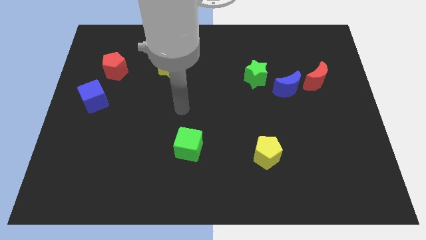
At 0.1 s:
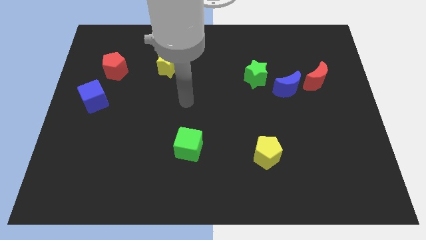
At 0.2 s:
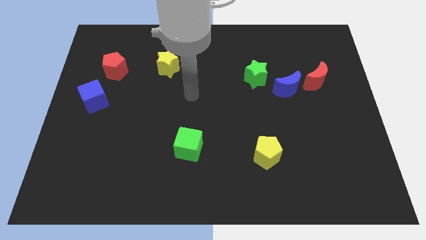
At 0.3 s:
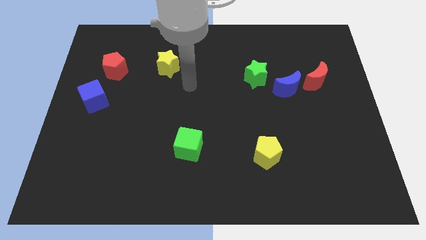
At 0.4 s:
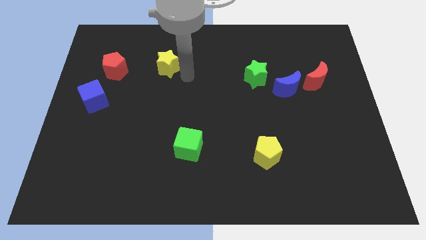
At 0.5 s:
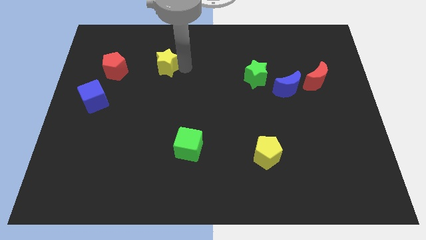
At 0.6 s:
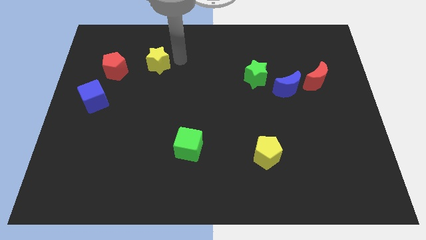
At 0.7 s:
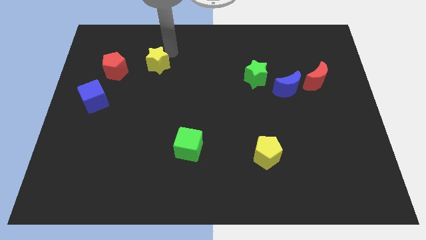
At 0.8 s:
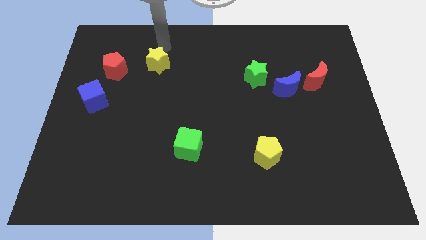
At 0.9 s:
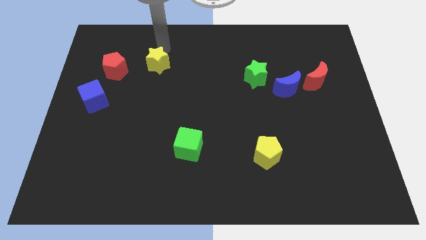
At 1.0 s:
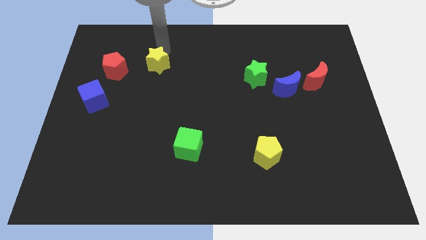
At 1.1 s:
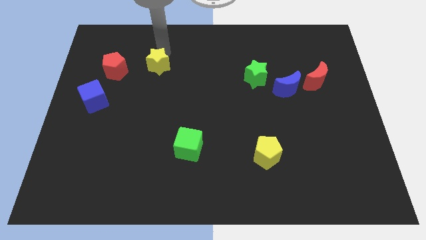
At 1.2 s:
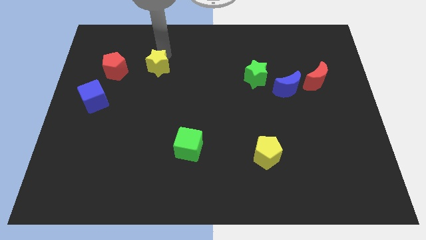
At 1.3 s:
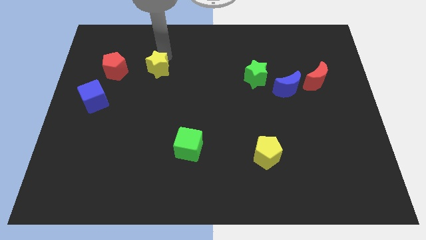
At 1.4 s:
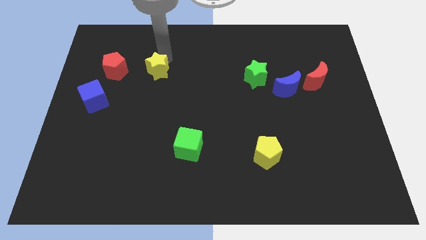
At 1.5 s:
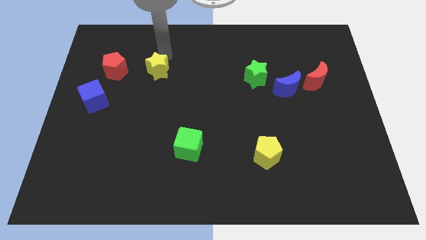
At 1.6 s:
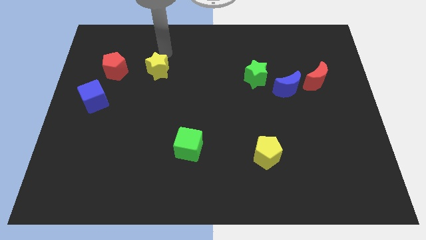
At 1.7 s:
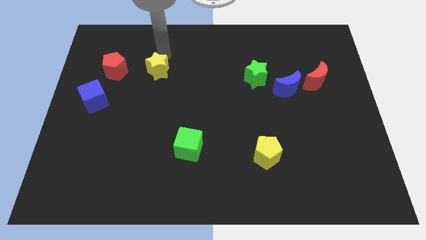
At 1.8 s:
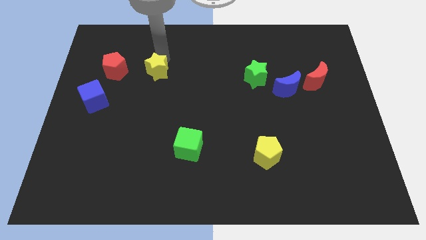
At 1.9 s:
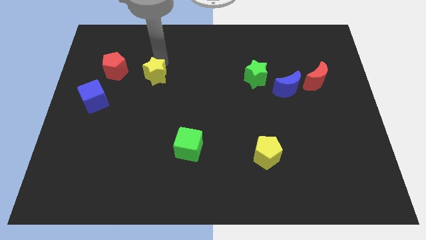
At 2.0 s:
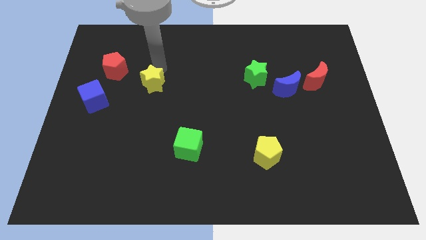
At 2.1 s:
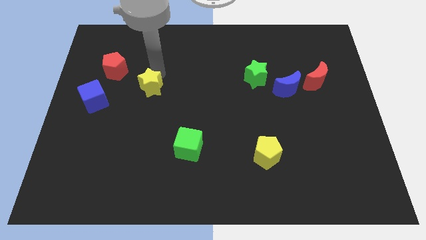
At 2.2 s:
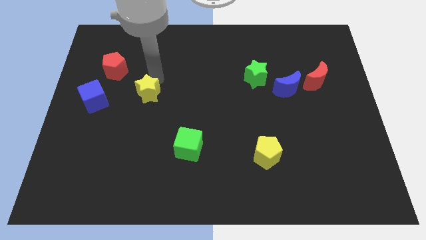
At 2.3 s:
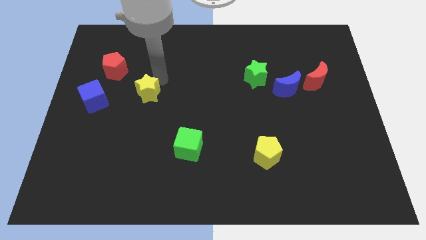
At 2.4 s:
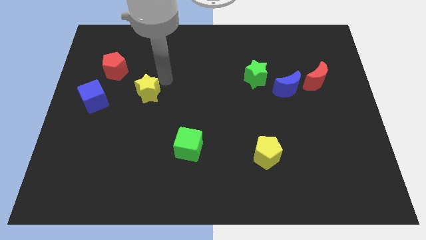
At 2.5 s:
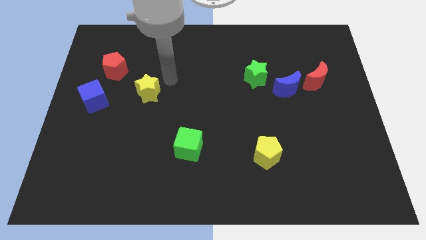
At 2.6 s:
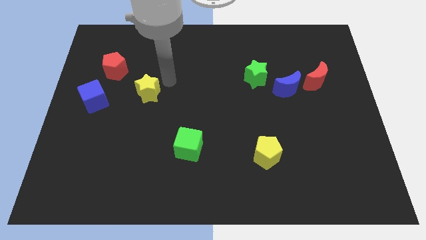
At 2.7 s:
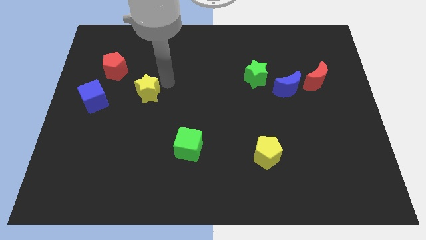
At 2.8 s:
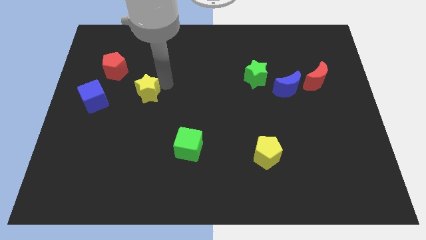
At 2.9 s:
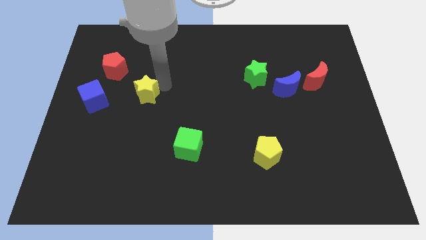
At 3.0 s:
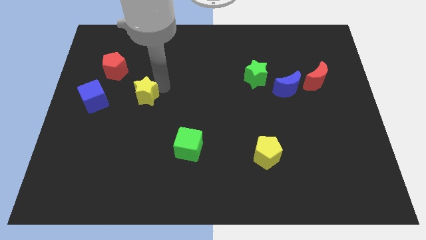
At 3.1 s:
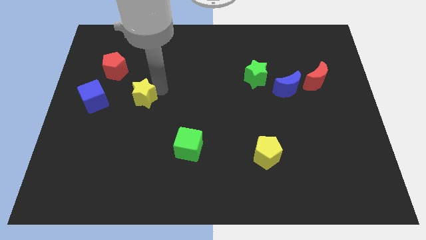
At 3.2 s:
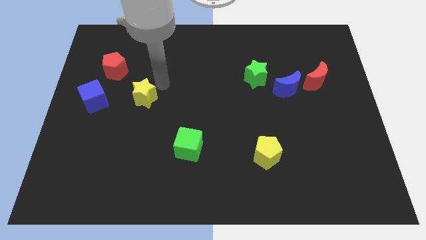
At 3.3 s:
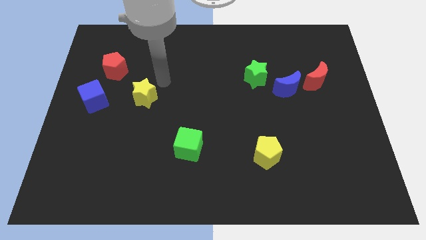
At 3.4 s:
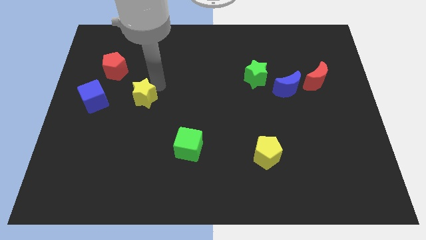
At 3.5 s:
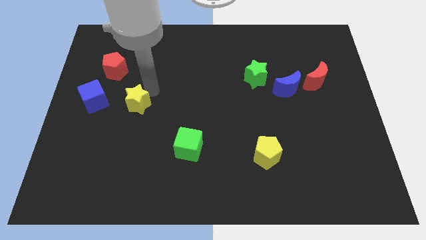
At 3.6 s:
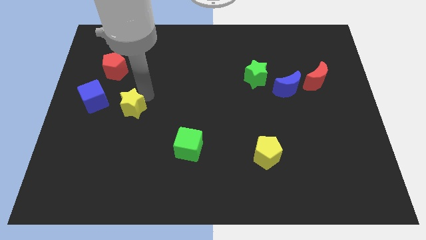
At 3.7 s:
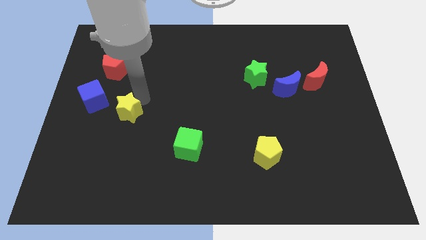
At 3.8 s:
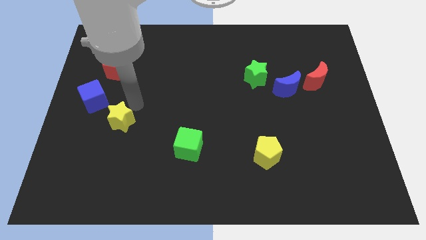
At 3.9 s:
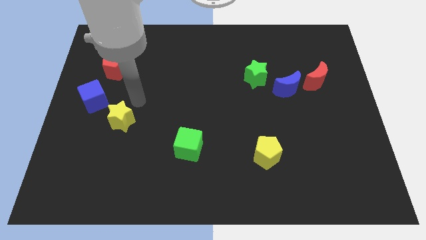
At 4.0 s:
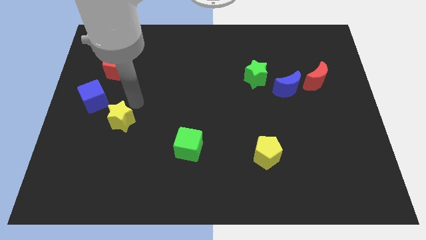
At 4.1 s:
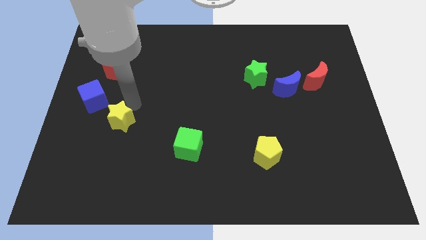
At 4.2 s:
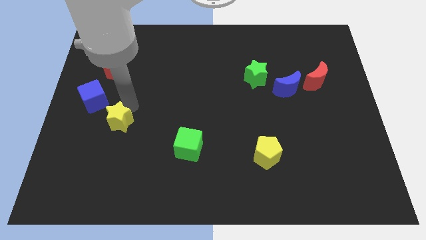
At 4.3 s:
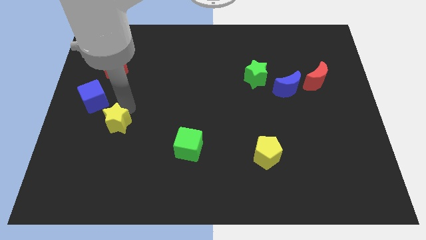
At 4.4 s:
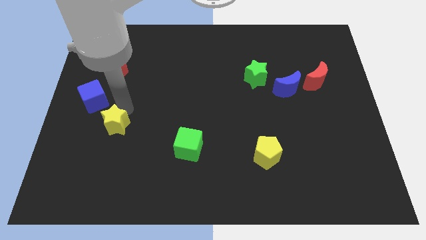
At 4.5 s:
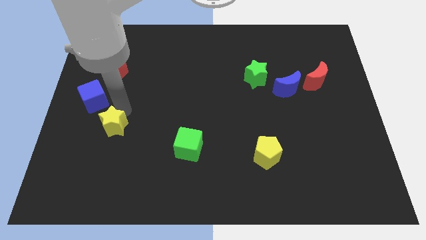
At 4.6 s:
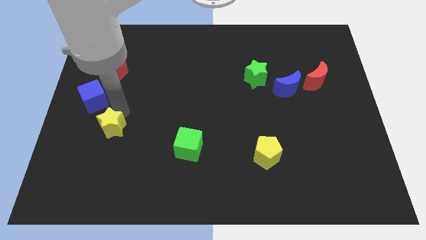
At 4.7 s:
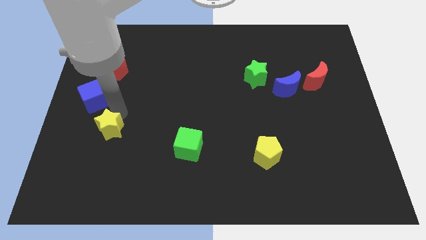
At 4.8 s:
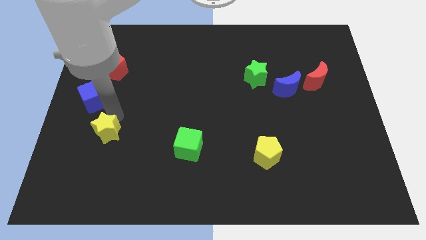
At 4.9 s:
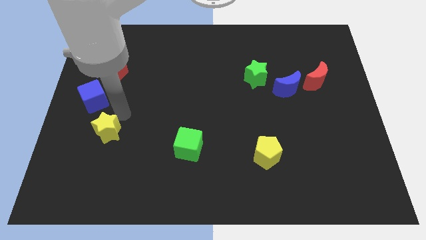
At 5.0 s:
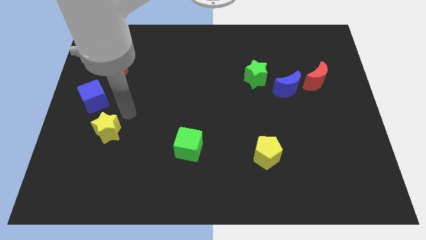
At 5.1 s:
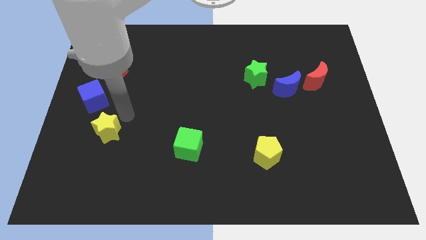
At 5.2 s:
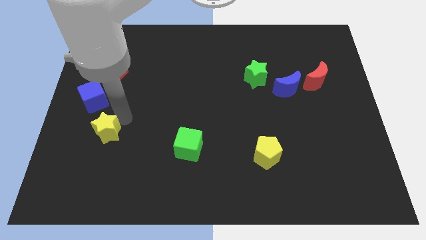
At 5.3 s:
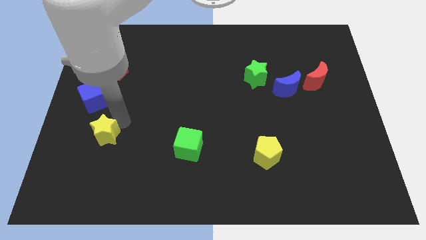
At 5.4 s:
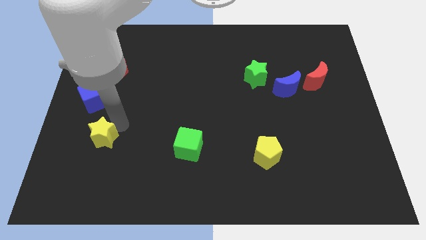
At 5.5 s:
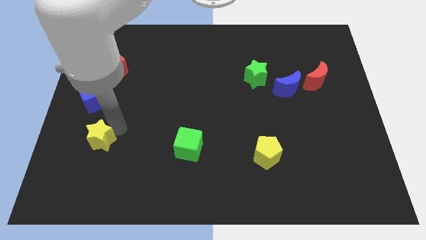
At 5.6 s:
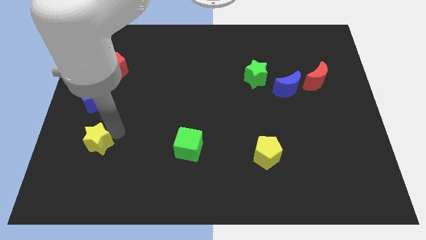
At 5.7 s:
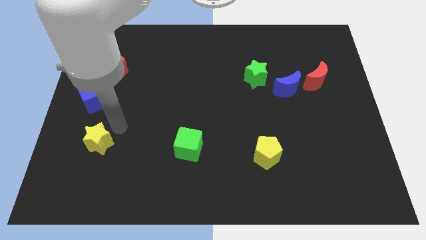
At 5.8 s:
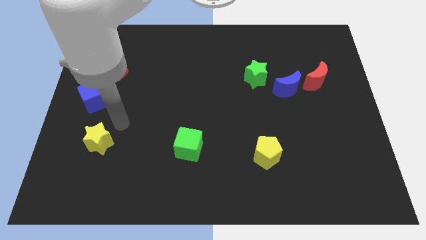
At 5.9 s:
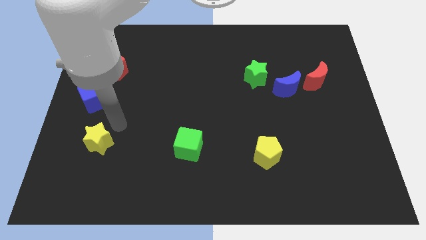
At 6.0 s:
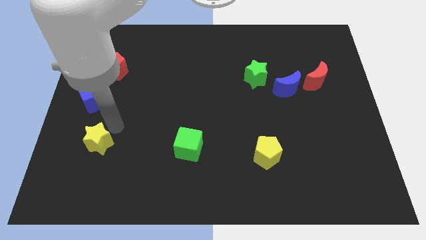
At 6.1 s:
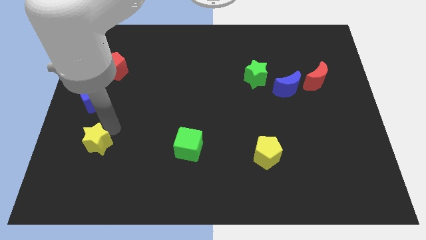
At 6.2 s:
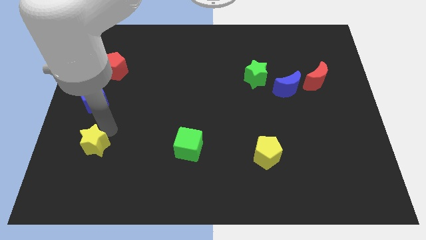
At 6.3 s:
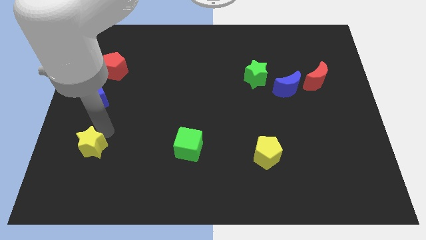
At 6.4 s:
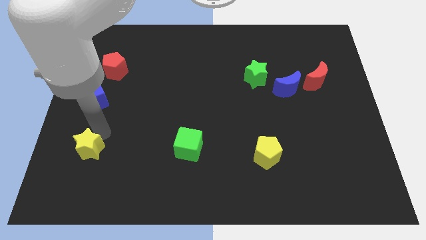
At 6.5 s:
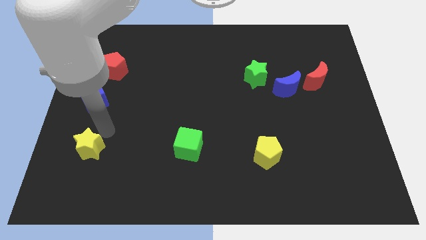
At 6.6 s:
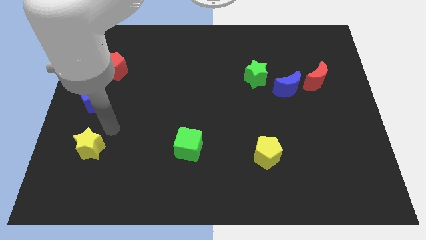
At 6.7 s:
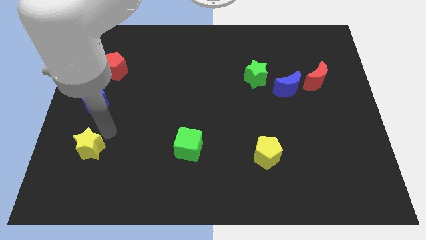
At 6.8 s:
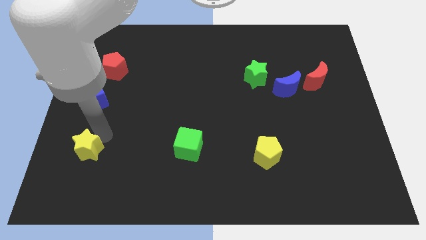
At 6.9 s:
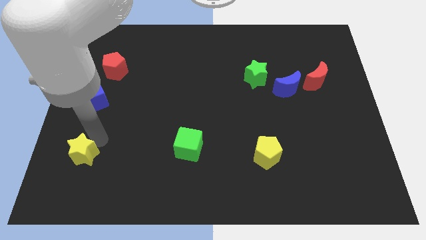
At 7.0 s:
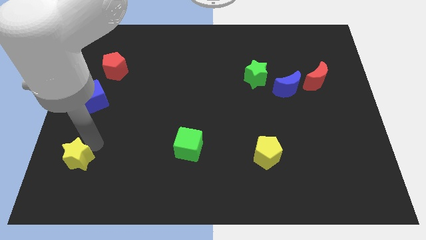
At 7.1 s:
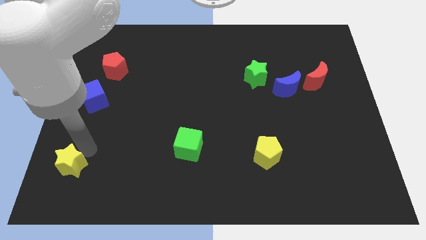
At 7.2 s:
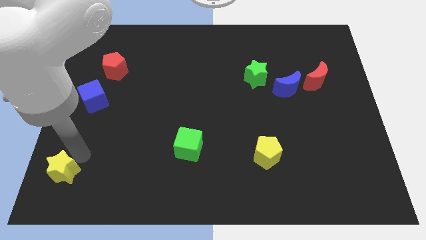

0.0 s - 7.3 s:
move the yellow star to the bottom left

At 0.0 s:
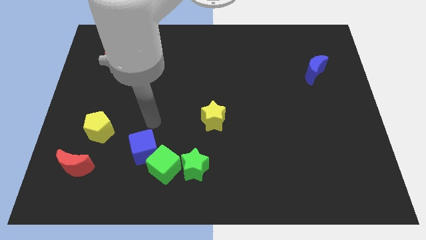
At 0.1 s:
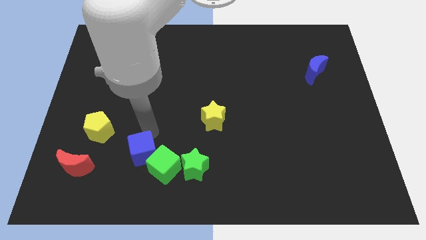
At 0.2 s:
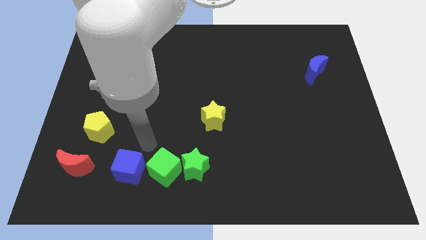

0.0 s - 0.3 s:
slide the green cube to the bottom
